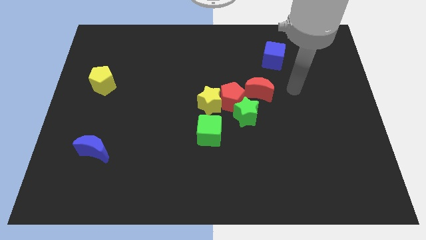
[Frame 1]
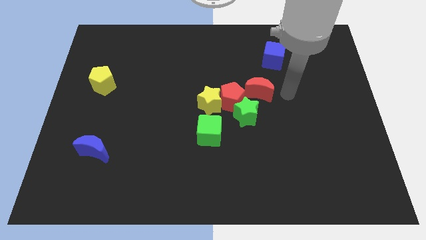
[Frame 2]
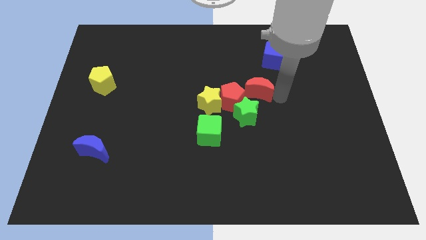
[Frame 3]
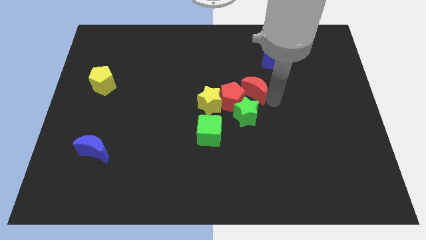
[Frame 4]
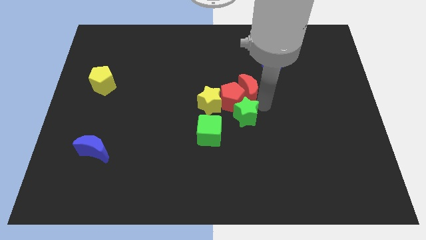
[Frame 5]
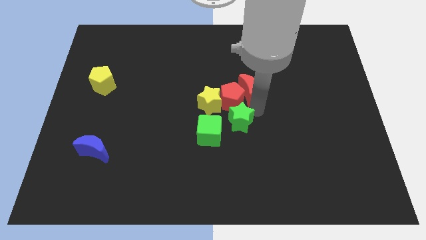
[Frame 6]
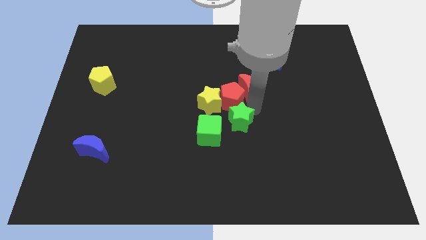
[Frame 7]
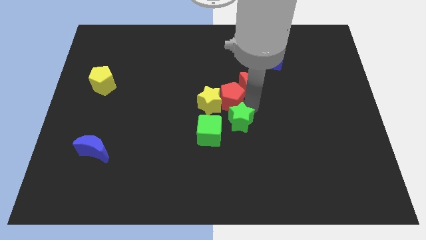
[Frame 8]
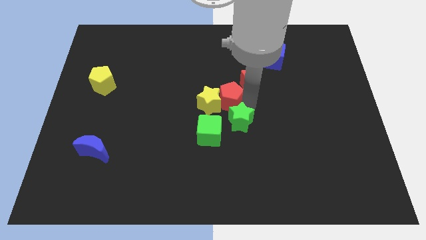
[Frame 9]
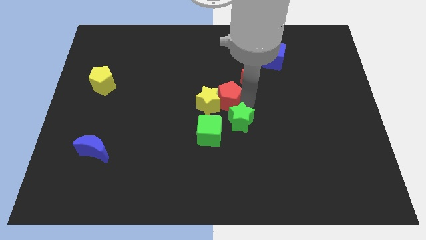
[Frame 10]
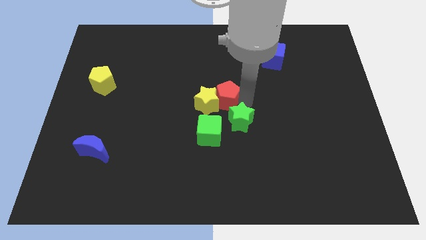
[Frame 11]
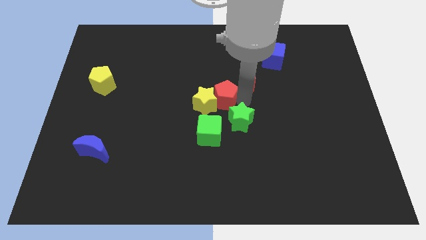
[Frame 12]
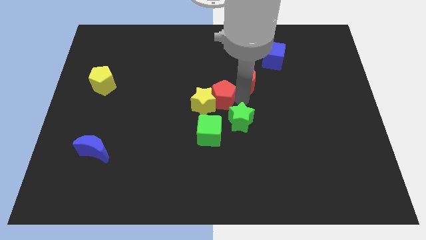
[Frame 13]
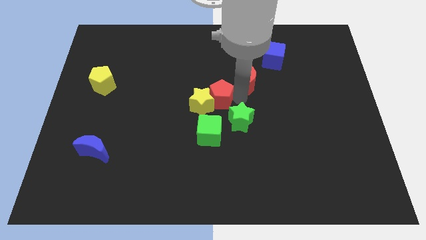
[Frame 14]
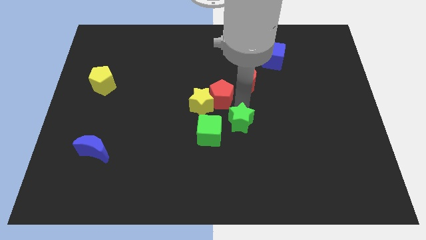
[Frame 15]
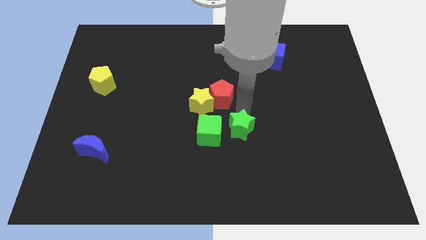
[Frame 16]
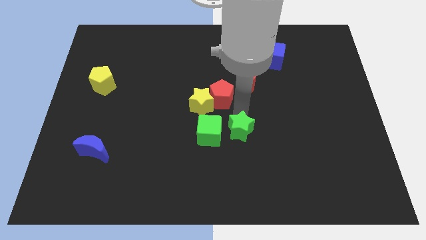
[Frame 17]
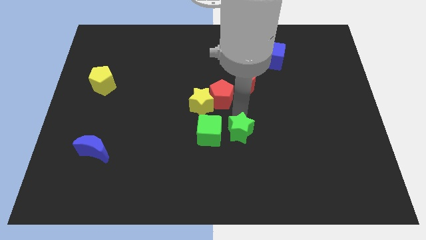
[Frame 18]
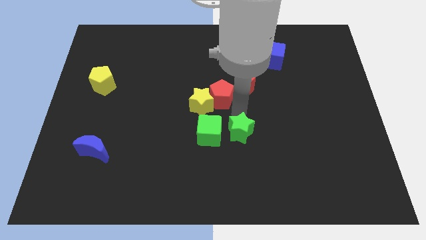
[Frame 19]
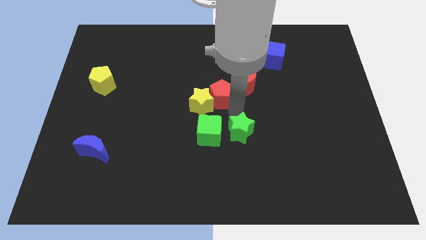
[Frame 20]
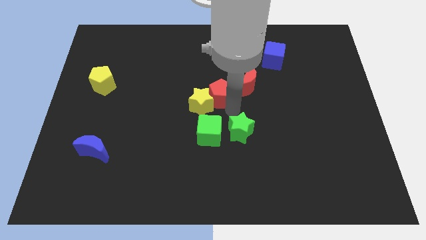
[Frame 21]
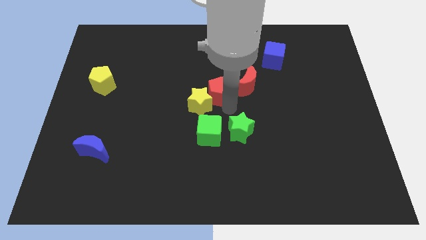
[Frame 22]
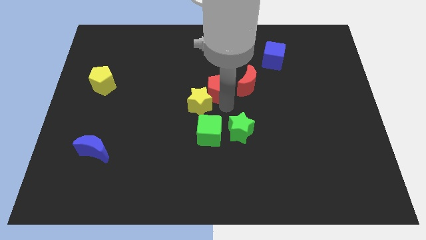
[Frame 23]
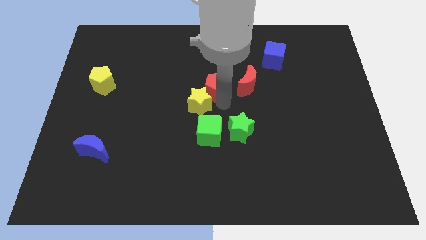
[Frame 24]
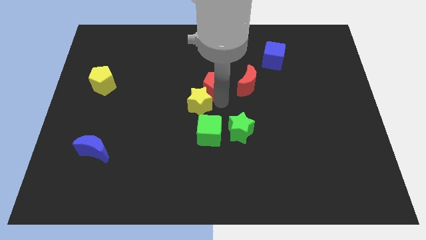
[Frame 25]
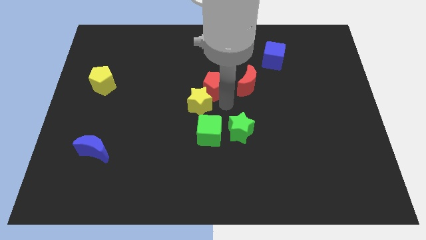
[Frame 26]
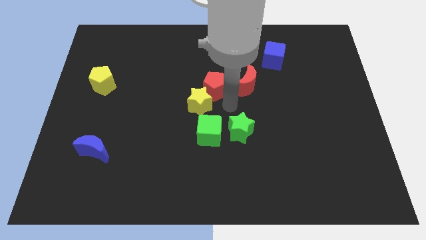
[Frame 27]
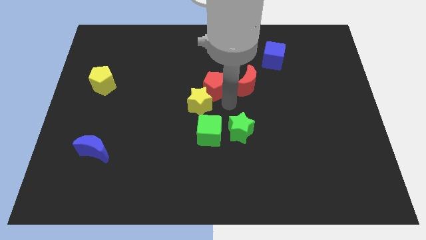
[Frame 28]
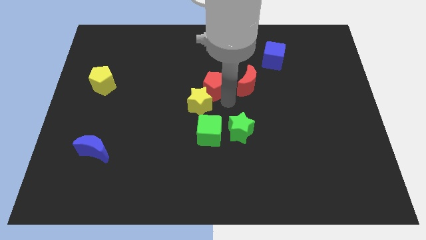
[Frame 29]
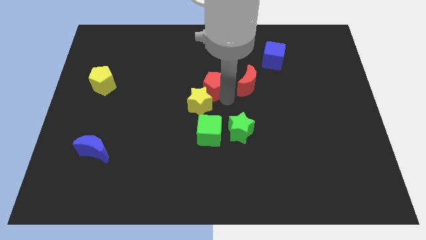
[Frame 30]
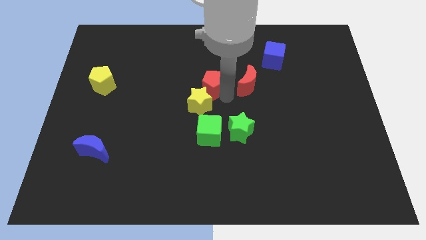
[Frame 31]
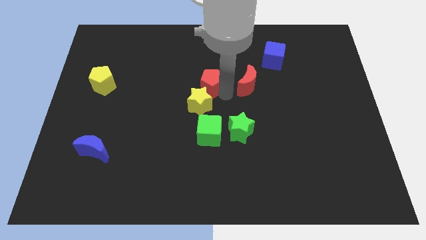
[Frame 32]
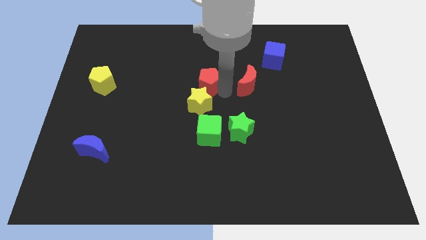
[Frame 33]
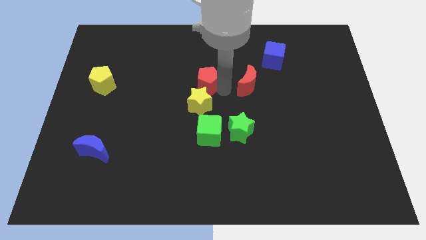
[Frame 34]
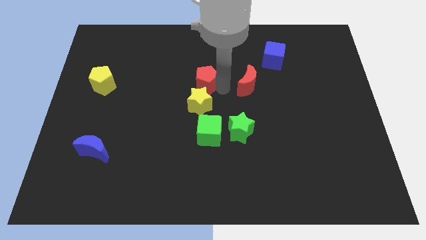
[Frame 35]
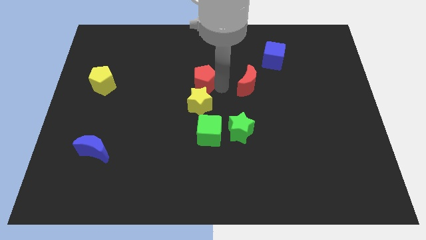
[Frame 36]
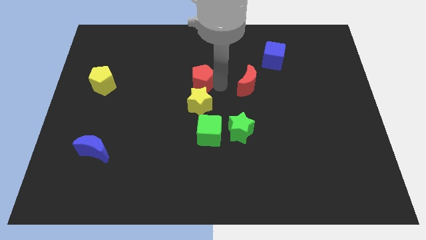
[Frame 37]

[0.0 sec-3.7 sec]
pull the red pentagon apart from the green star, yellow star, and red moon

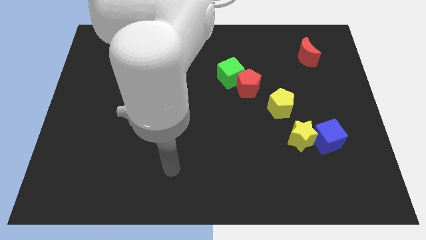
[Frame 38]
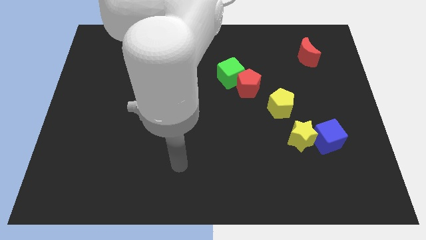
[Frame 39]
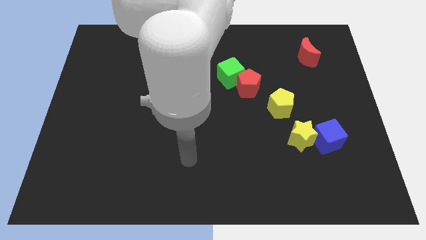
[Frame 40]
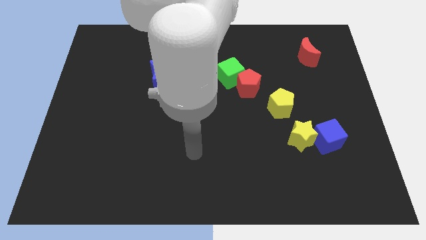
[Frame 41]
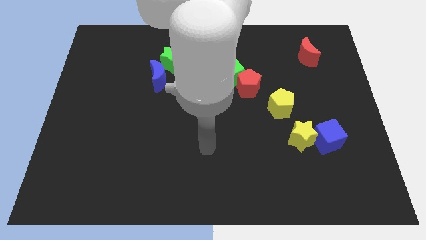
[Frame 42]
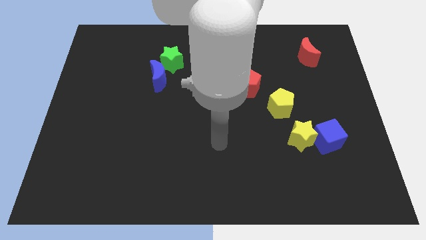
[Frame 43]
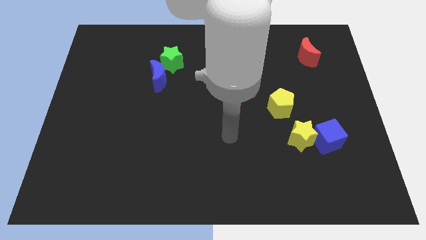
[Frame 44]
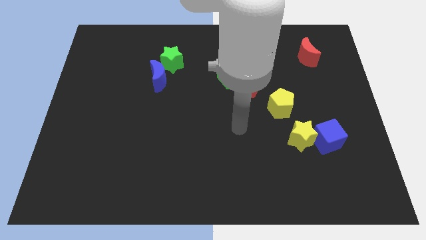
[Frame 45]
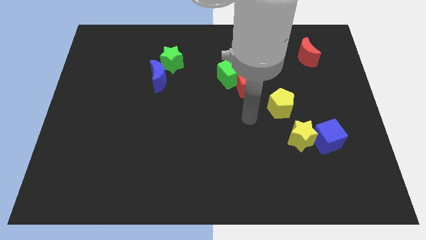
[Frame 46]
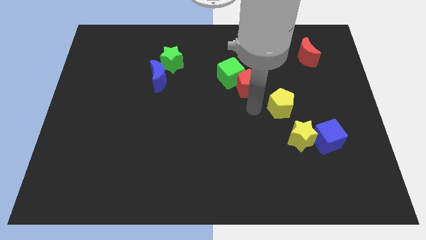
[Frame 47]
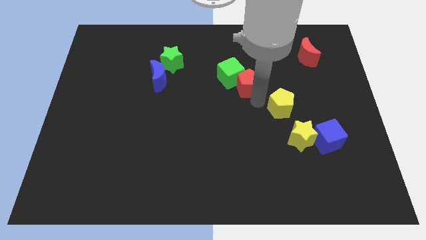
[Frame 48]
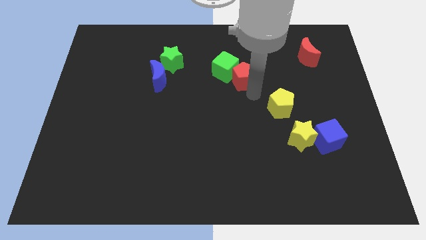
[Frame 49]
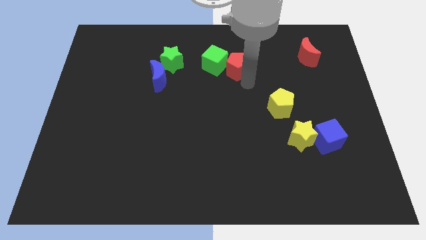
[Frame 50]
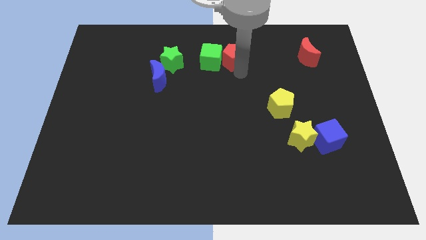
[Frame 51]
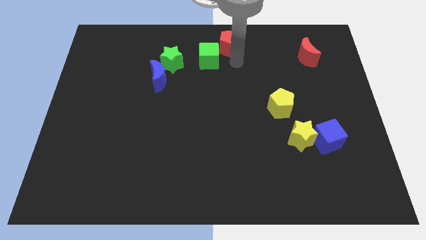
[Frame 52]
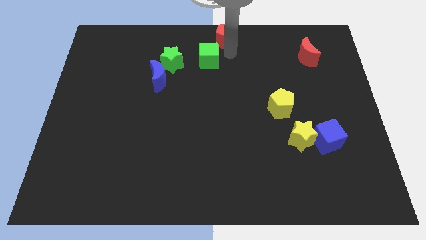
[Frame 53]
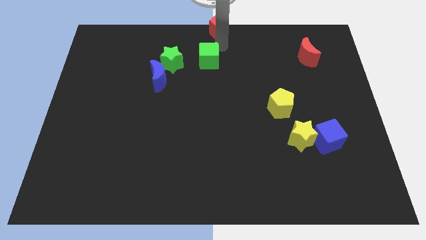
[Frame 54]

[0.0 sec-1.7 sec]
pull the green cube apart from the red pentagon

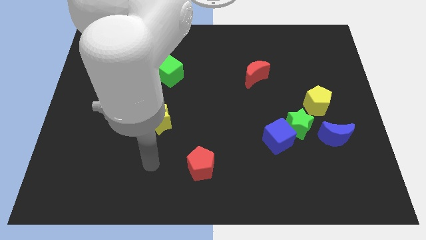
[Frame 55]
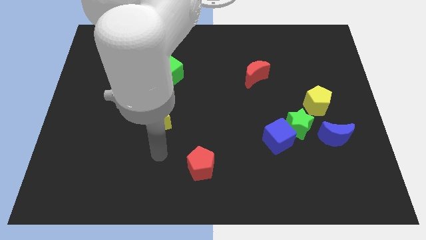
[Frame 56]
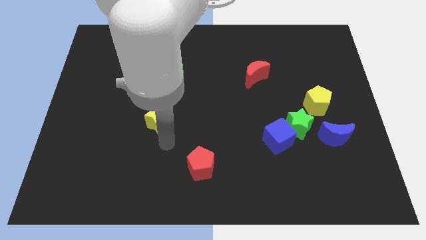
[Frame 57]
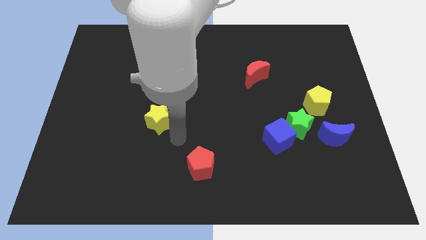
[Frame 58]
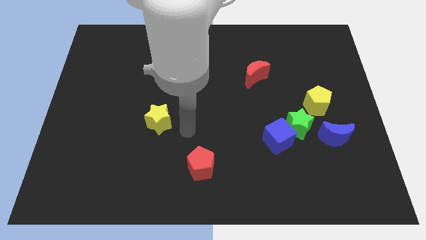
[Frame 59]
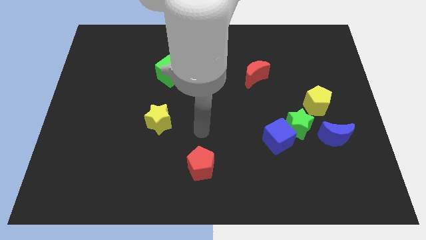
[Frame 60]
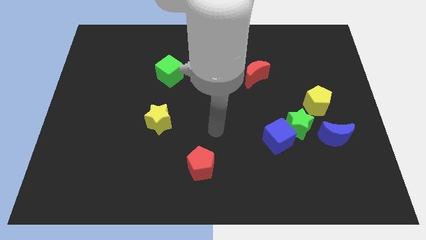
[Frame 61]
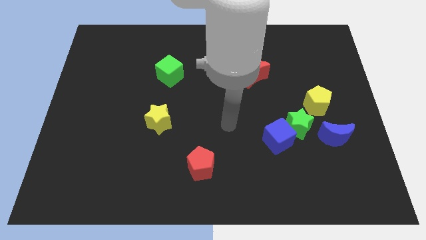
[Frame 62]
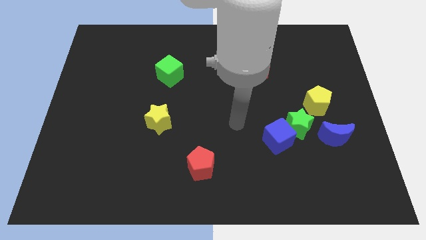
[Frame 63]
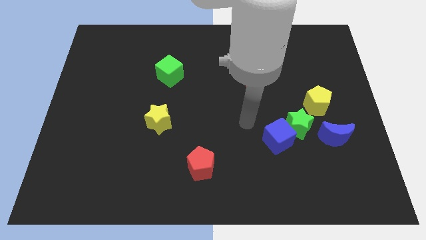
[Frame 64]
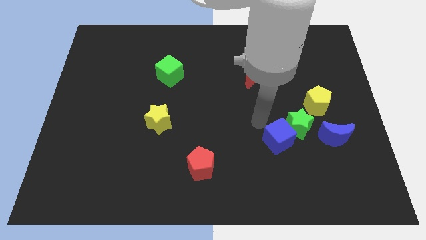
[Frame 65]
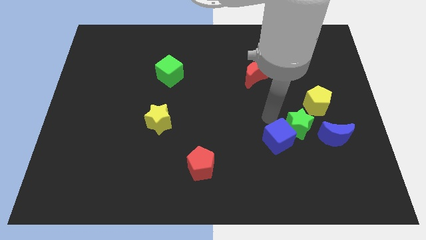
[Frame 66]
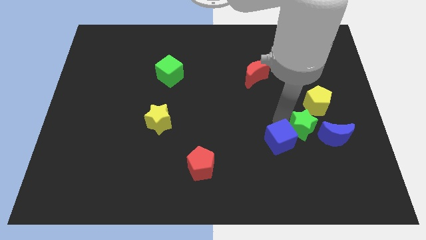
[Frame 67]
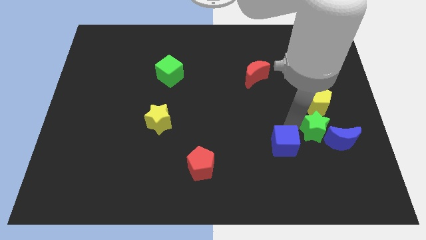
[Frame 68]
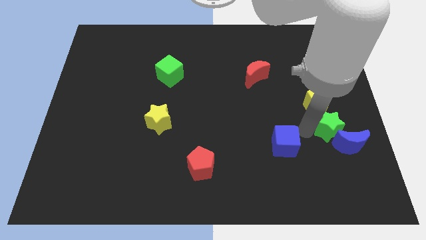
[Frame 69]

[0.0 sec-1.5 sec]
pull the blue cube apart from the green star

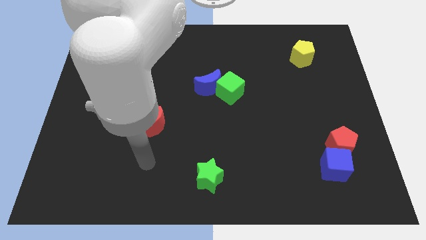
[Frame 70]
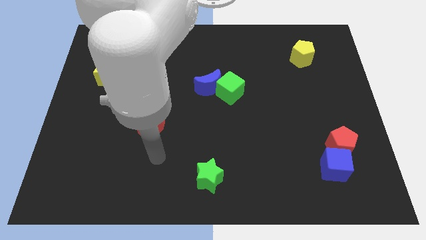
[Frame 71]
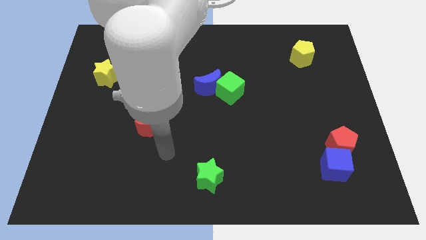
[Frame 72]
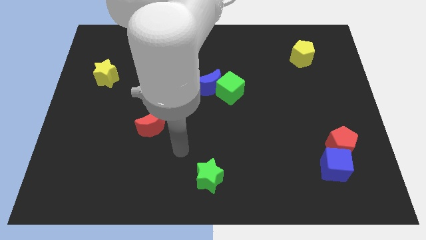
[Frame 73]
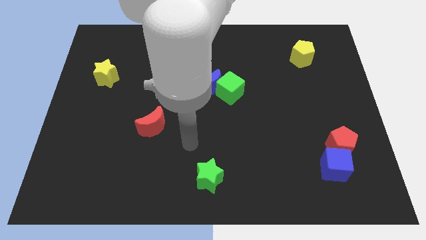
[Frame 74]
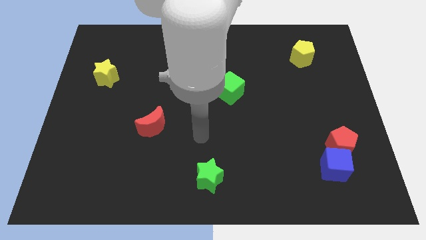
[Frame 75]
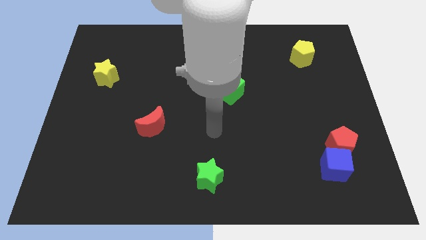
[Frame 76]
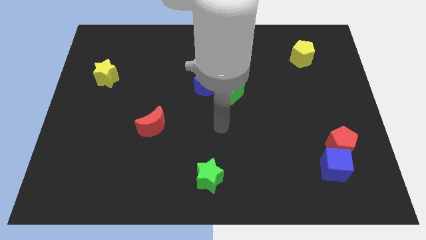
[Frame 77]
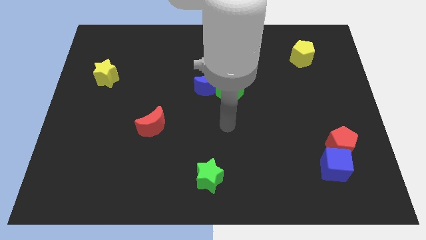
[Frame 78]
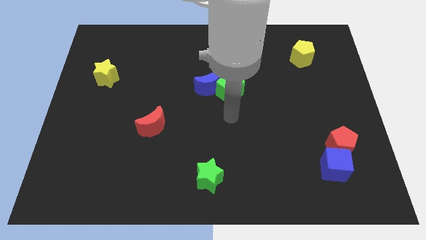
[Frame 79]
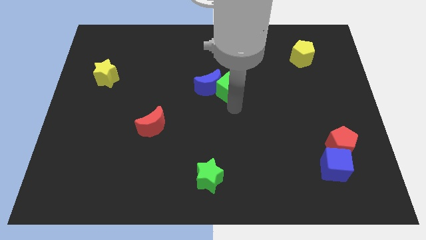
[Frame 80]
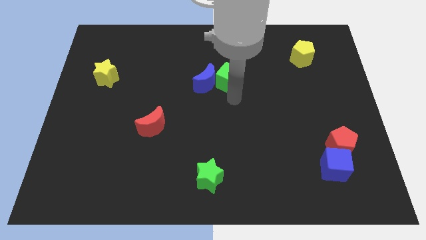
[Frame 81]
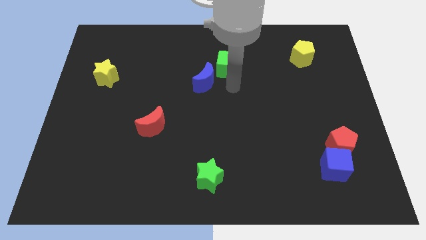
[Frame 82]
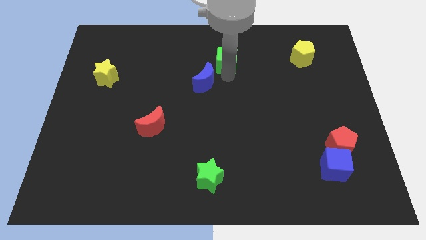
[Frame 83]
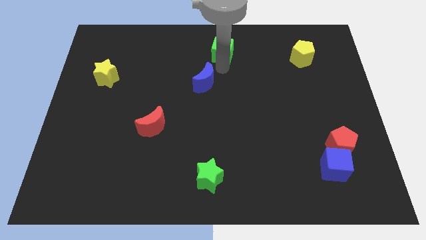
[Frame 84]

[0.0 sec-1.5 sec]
move the blue moon away from the green cube

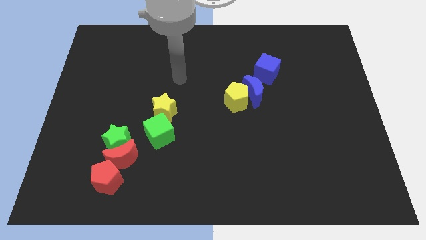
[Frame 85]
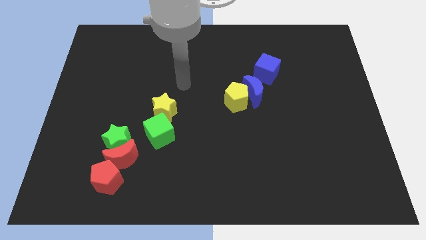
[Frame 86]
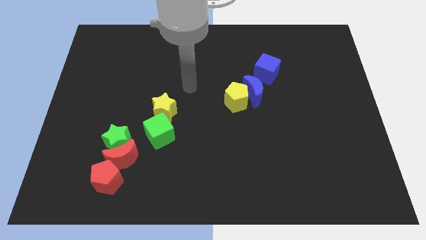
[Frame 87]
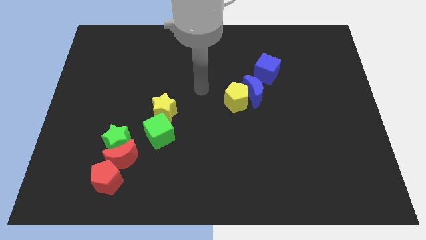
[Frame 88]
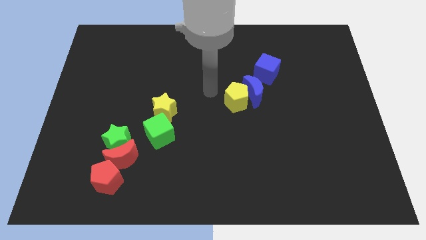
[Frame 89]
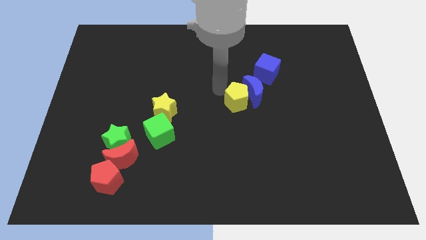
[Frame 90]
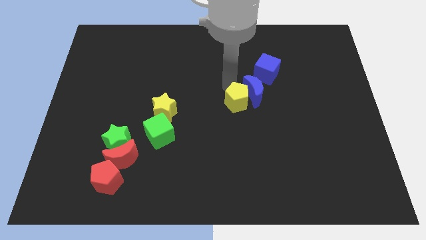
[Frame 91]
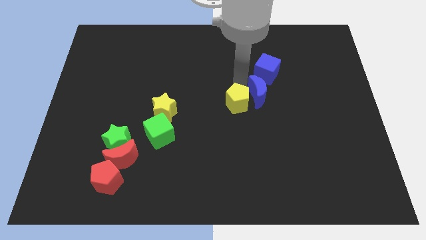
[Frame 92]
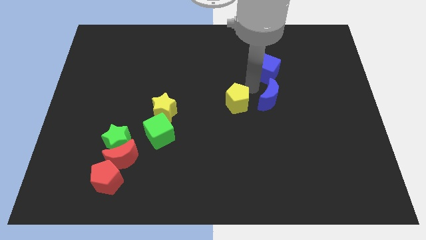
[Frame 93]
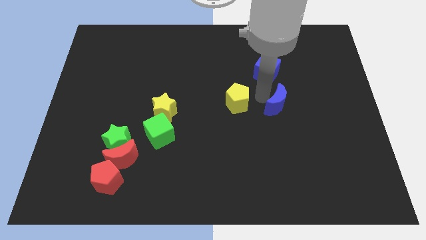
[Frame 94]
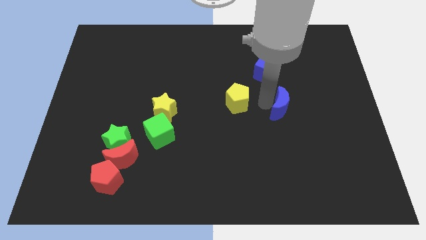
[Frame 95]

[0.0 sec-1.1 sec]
move the yellow pentagon away from the blue moon
